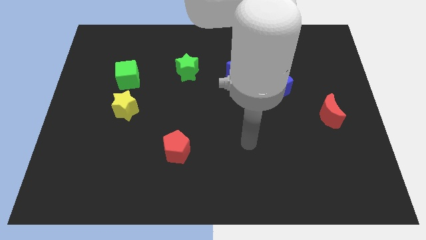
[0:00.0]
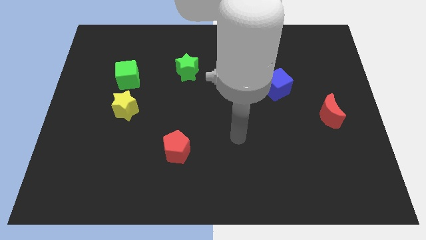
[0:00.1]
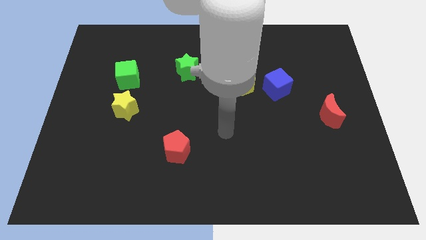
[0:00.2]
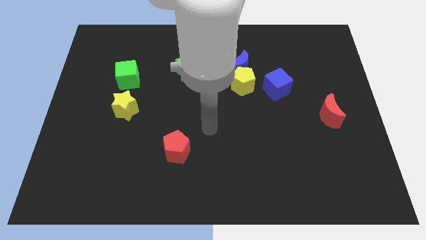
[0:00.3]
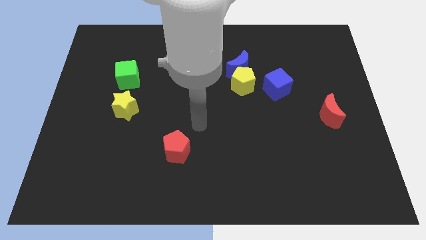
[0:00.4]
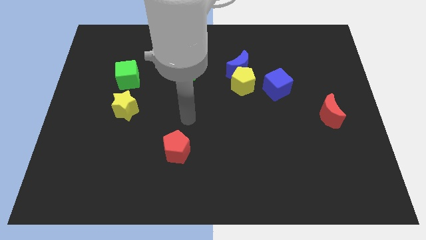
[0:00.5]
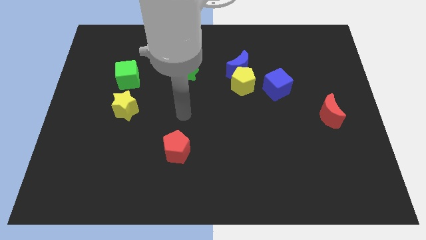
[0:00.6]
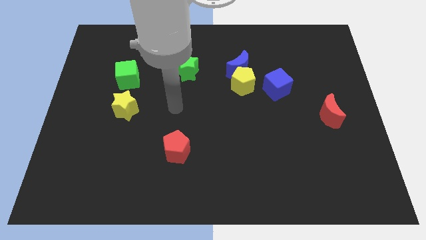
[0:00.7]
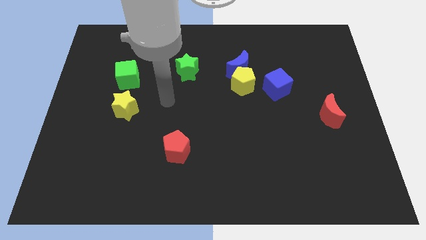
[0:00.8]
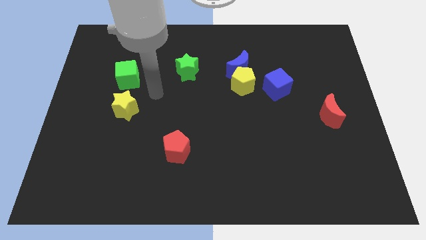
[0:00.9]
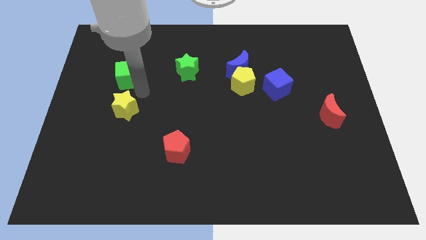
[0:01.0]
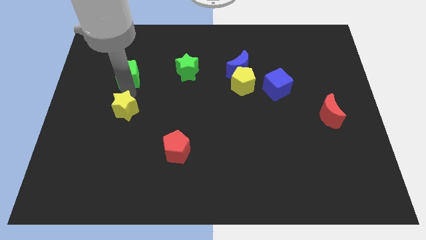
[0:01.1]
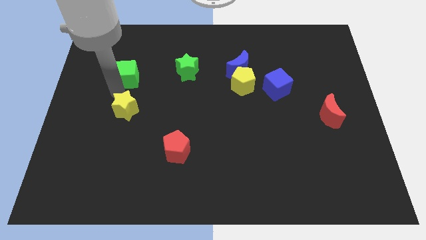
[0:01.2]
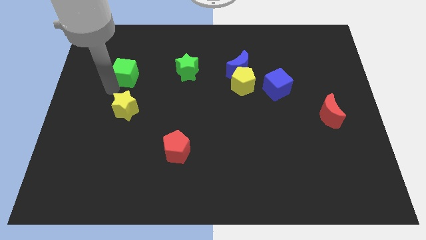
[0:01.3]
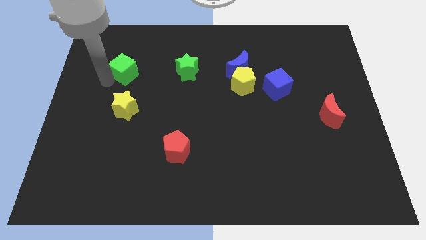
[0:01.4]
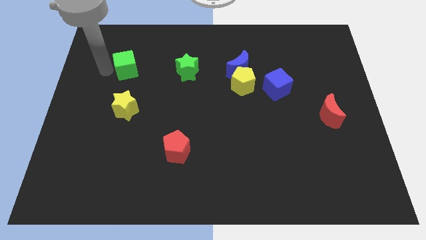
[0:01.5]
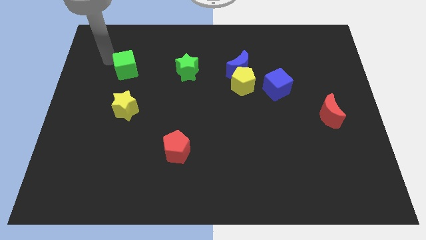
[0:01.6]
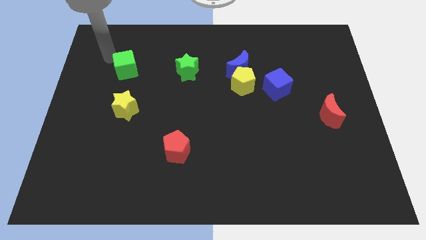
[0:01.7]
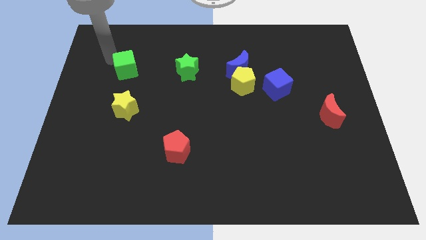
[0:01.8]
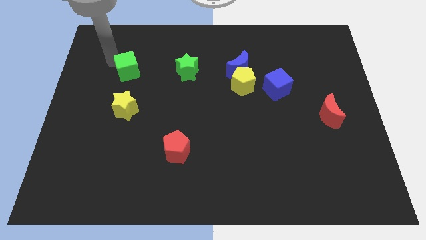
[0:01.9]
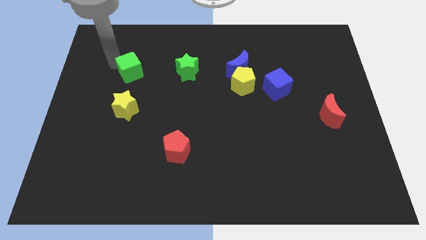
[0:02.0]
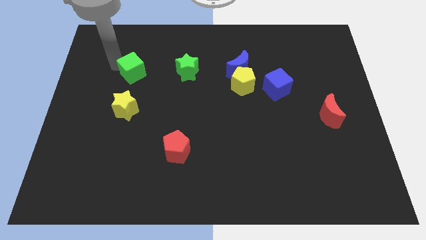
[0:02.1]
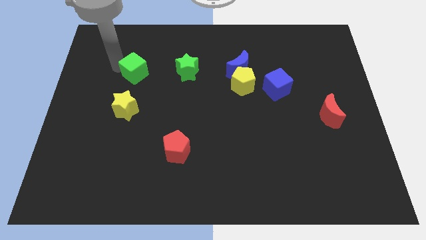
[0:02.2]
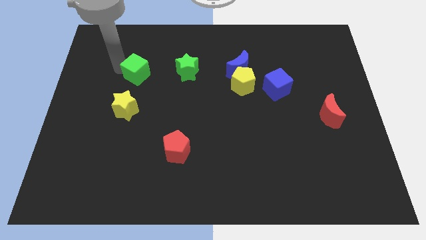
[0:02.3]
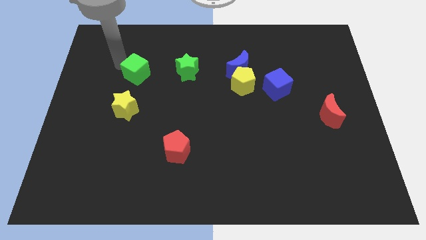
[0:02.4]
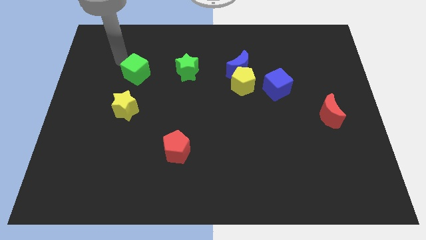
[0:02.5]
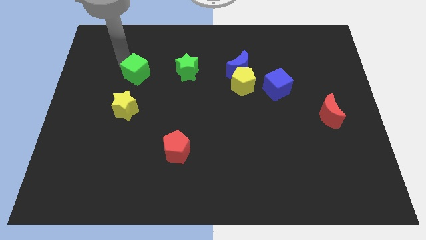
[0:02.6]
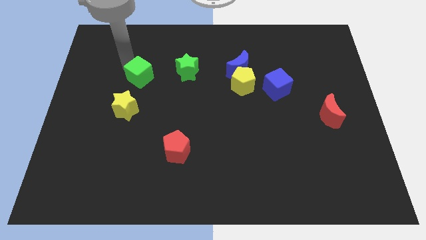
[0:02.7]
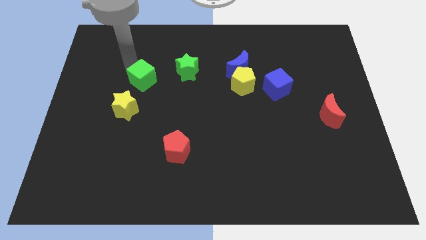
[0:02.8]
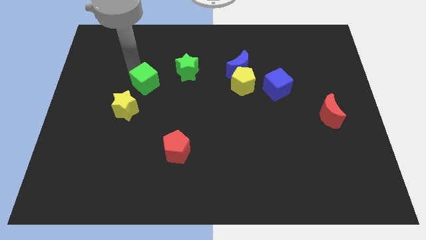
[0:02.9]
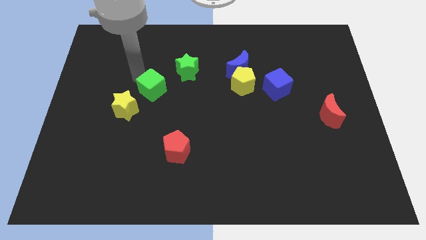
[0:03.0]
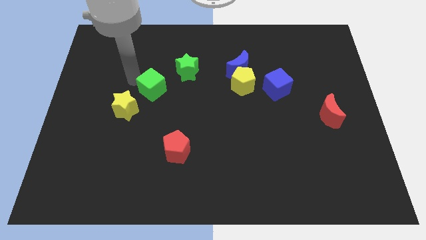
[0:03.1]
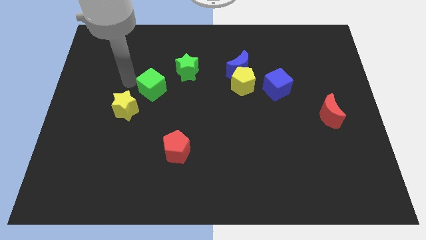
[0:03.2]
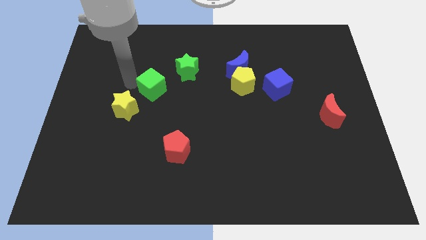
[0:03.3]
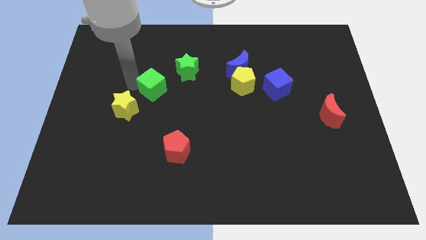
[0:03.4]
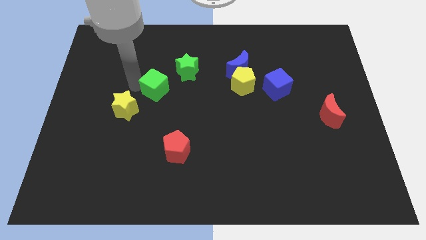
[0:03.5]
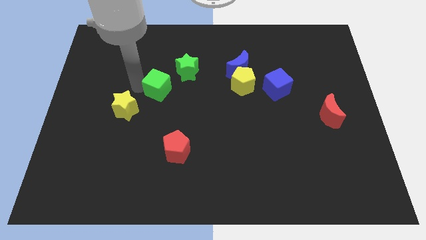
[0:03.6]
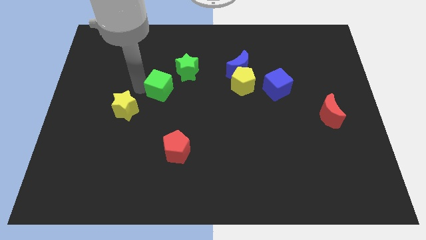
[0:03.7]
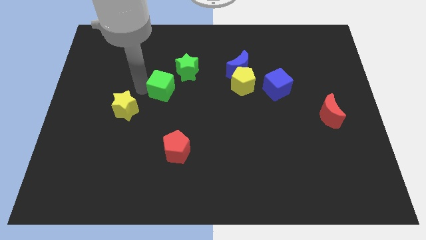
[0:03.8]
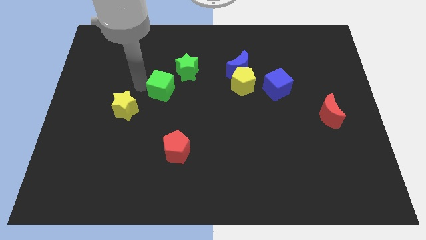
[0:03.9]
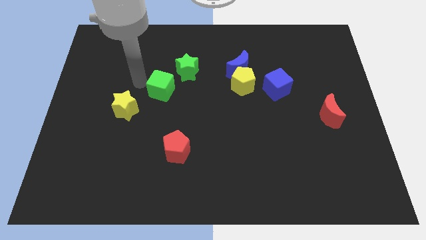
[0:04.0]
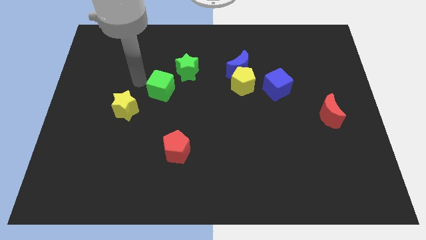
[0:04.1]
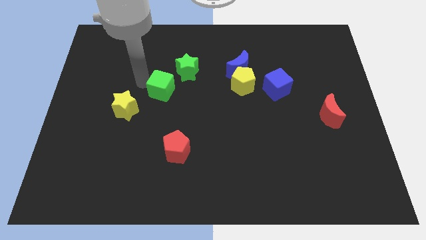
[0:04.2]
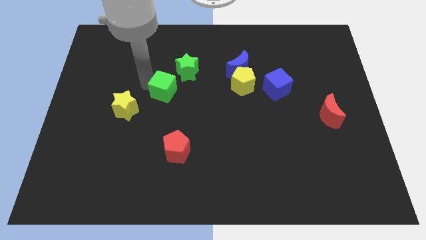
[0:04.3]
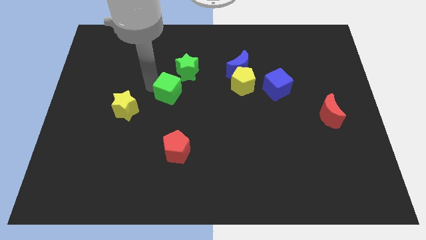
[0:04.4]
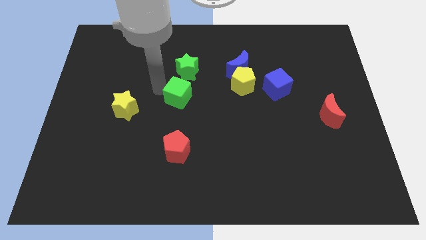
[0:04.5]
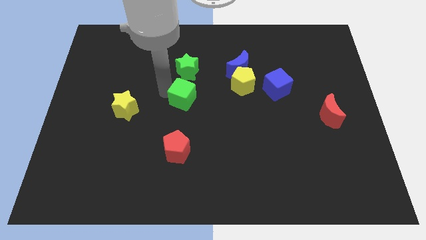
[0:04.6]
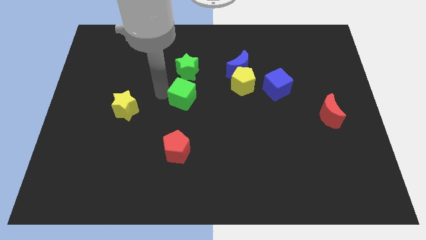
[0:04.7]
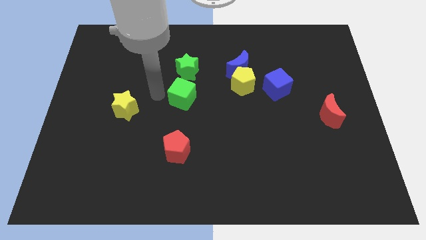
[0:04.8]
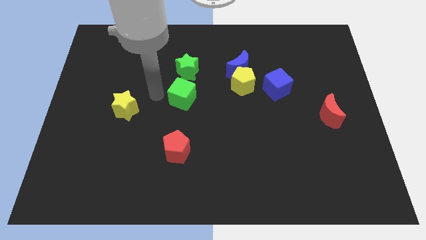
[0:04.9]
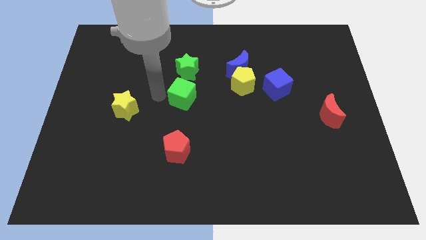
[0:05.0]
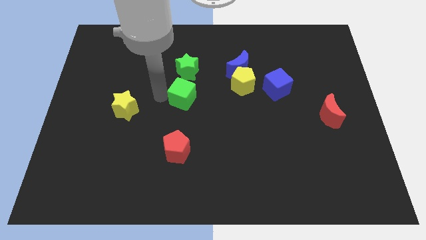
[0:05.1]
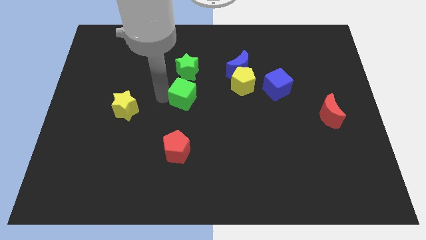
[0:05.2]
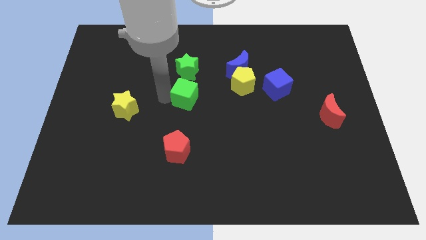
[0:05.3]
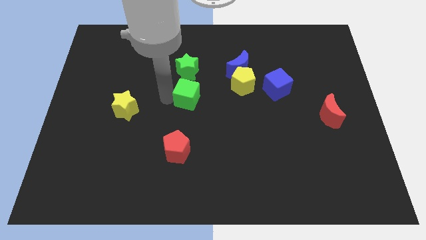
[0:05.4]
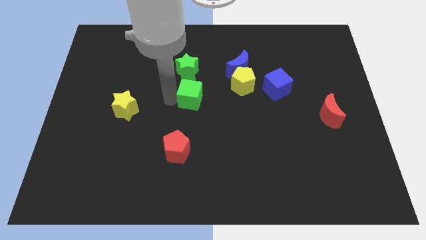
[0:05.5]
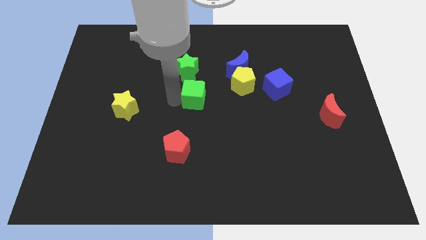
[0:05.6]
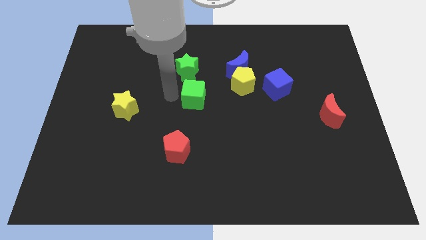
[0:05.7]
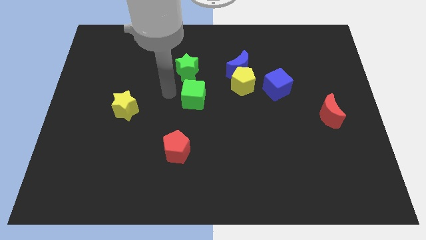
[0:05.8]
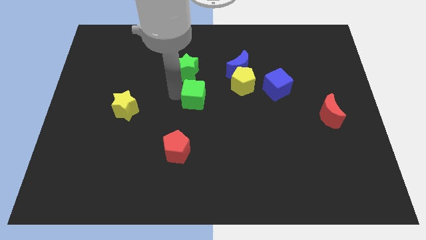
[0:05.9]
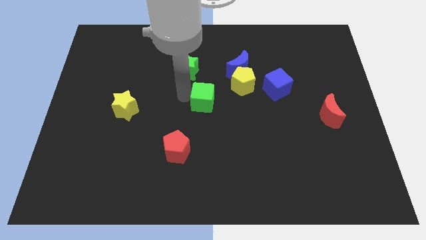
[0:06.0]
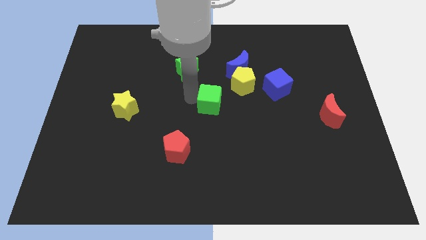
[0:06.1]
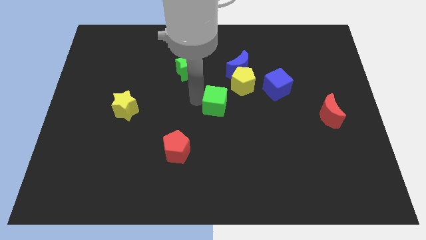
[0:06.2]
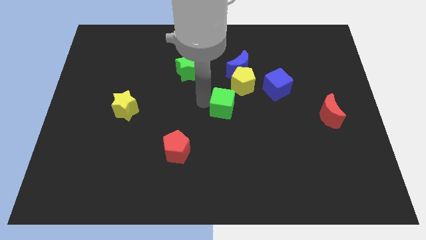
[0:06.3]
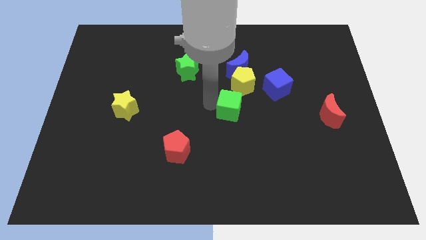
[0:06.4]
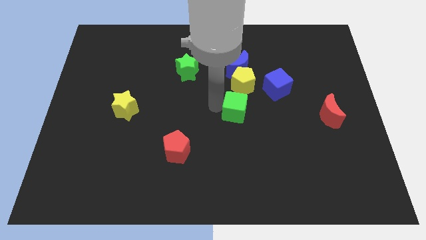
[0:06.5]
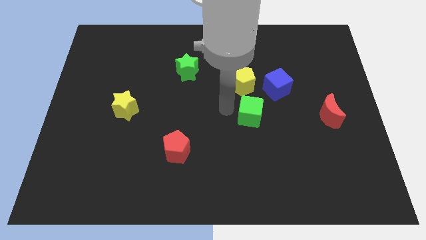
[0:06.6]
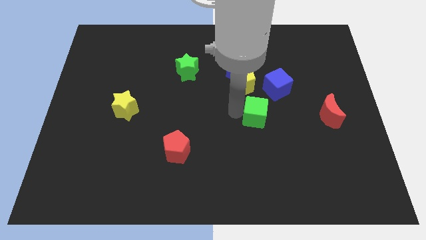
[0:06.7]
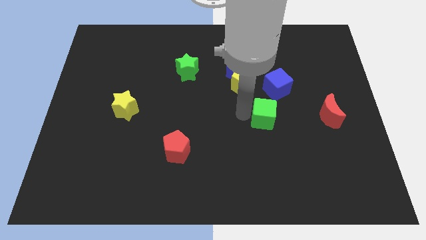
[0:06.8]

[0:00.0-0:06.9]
slide the green cube to the left of the red moon
